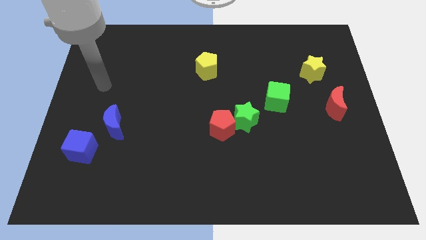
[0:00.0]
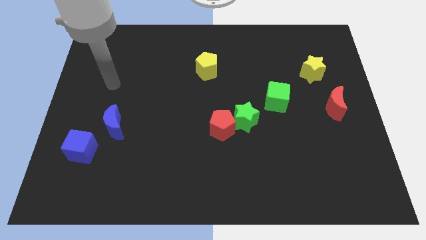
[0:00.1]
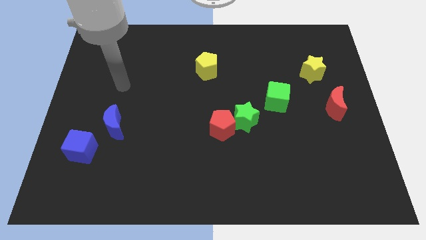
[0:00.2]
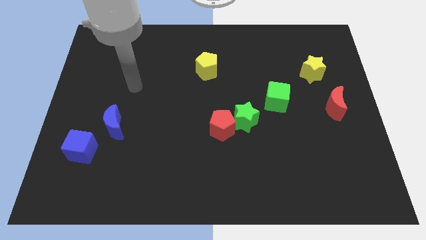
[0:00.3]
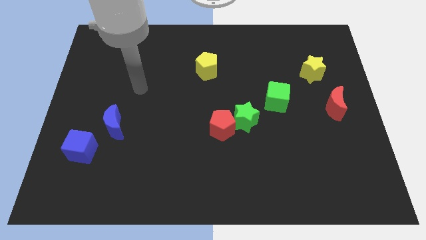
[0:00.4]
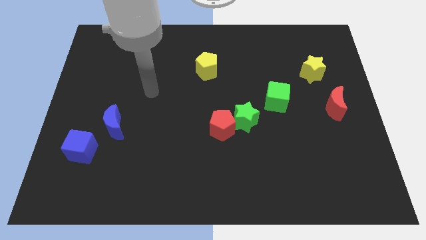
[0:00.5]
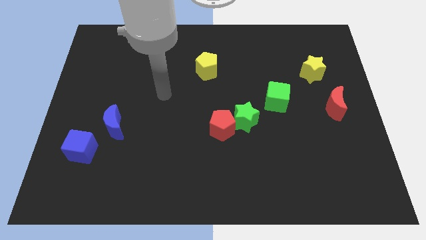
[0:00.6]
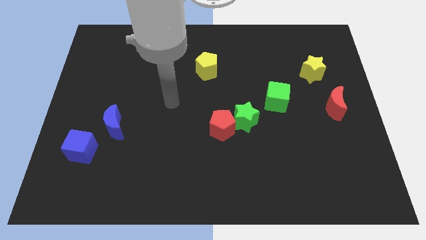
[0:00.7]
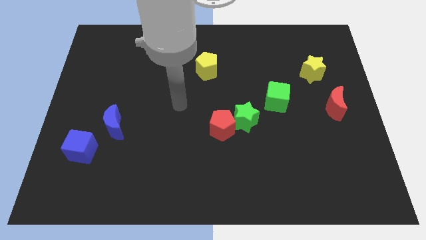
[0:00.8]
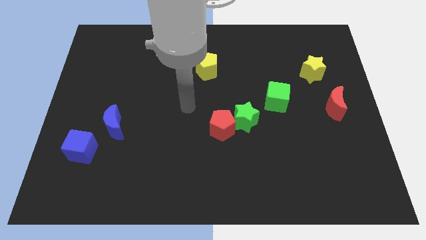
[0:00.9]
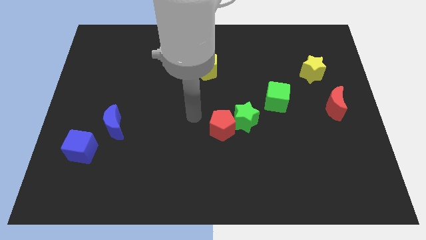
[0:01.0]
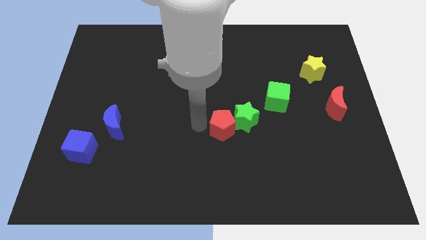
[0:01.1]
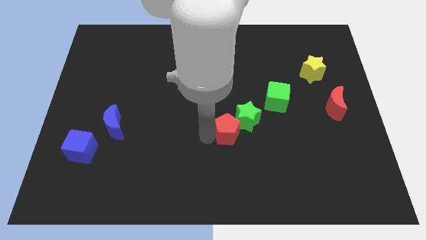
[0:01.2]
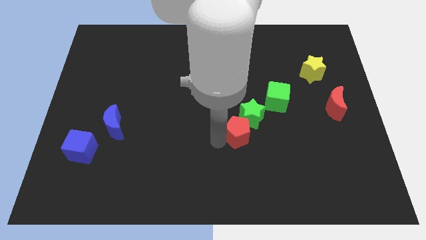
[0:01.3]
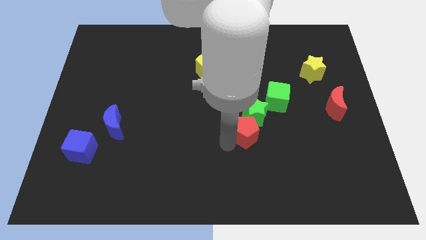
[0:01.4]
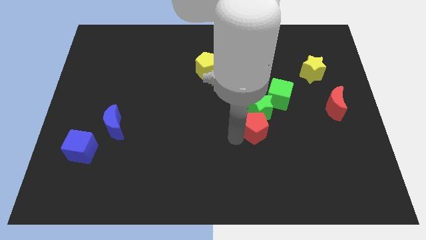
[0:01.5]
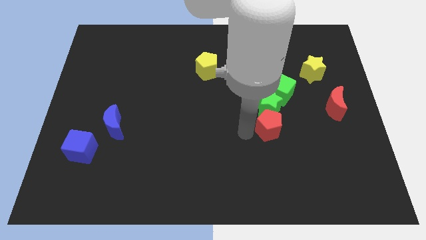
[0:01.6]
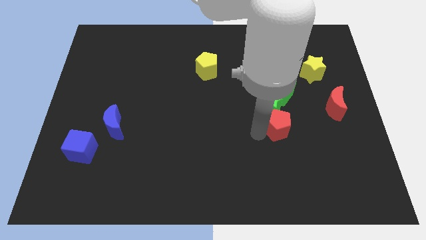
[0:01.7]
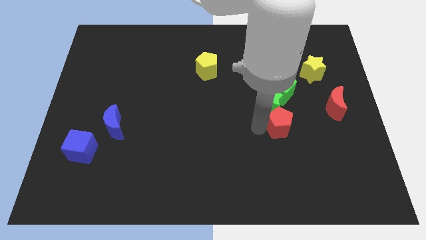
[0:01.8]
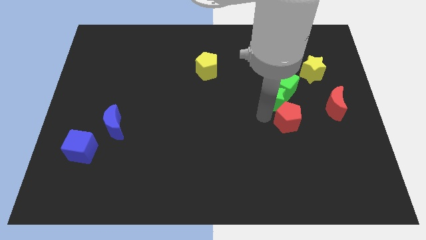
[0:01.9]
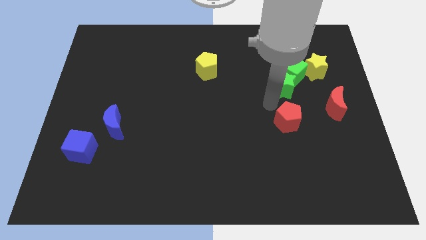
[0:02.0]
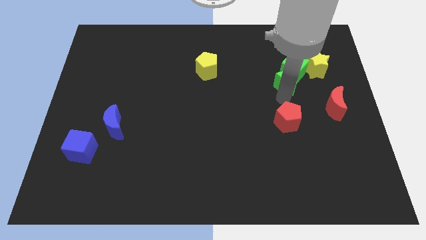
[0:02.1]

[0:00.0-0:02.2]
move the red pentagon away from the green star

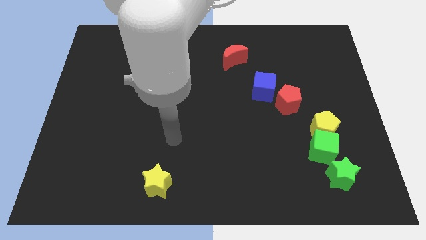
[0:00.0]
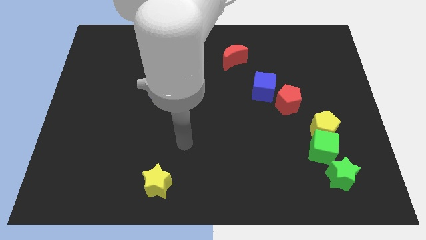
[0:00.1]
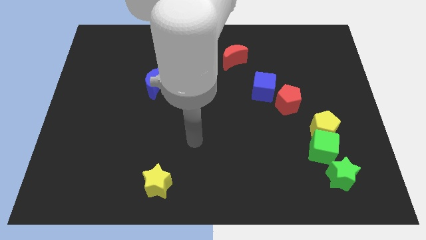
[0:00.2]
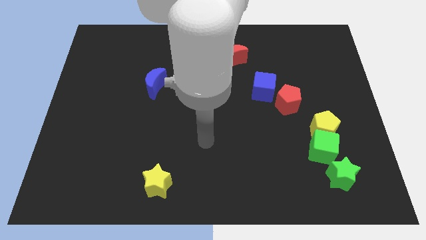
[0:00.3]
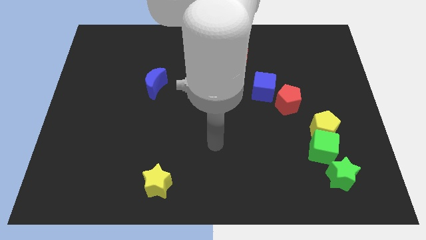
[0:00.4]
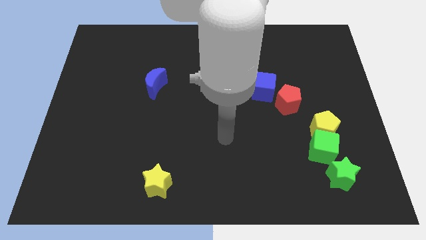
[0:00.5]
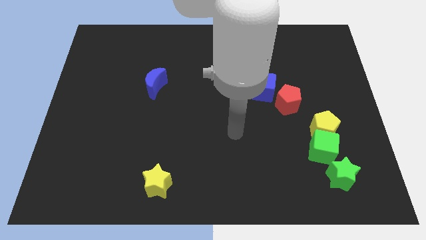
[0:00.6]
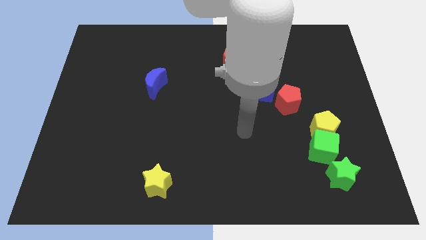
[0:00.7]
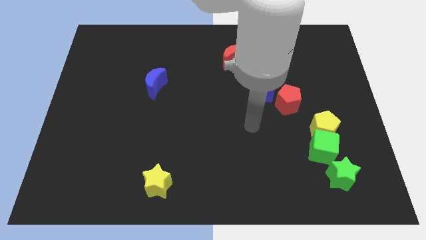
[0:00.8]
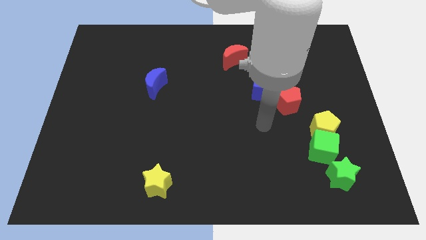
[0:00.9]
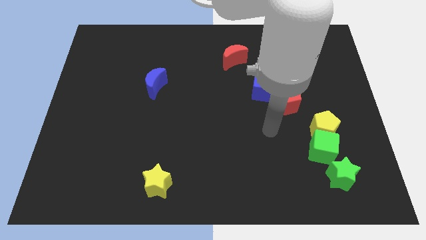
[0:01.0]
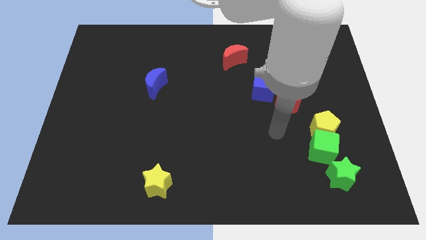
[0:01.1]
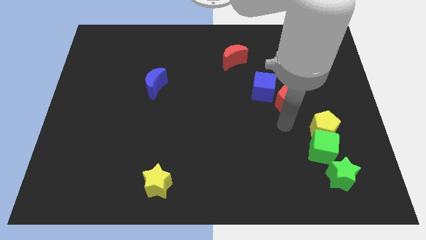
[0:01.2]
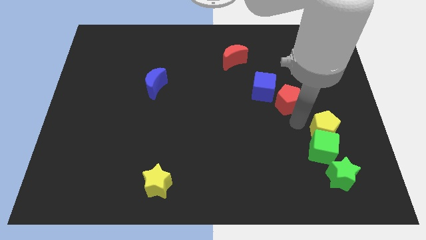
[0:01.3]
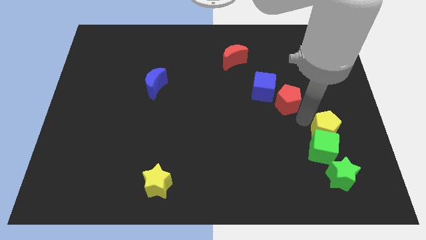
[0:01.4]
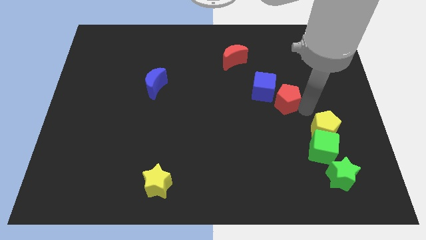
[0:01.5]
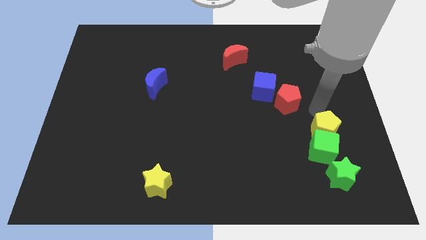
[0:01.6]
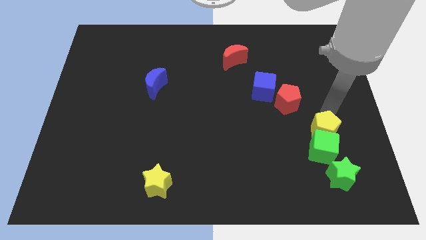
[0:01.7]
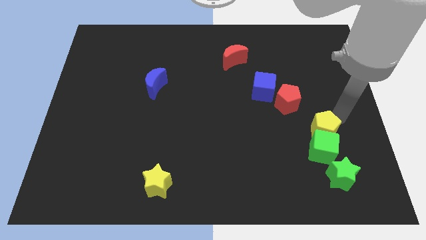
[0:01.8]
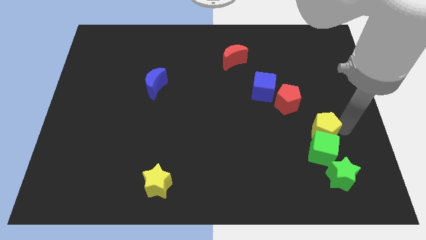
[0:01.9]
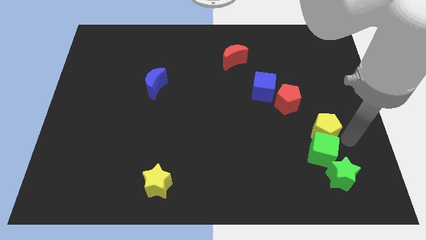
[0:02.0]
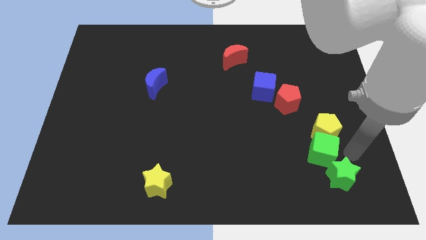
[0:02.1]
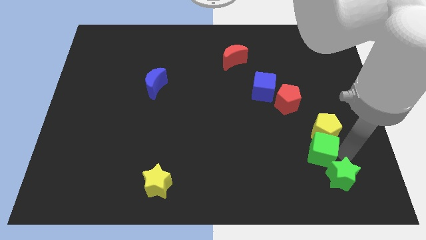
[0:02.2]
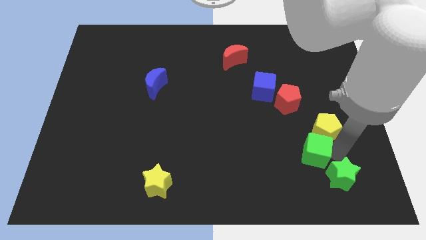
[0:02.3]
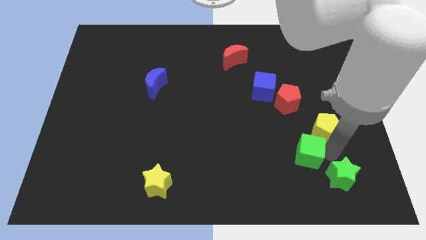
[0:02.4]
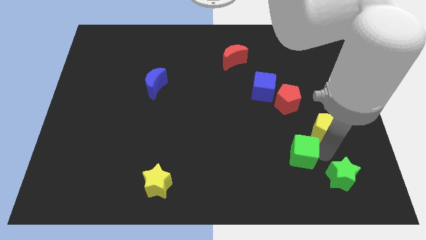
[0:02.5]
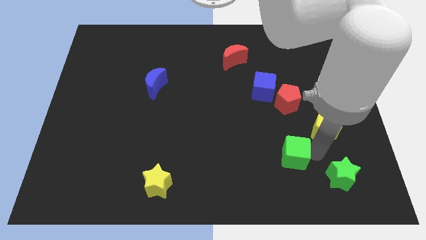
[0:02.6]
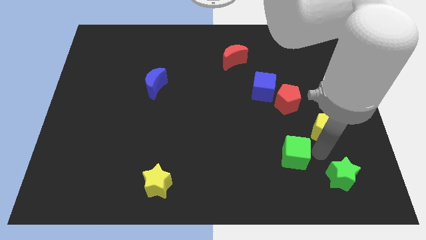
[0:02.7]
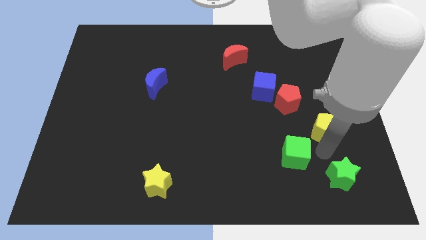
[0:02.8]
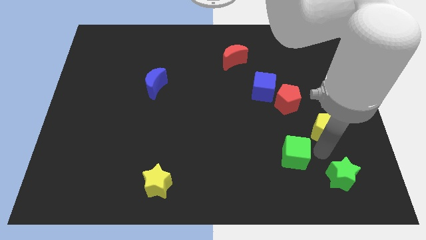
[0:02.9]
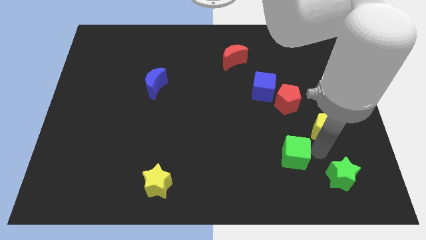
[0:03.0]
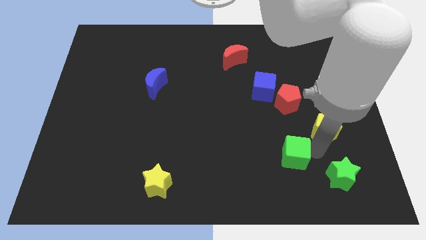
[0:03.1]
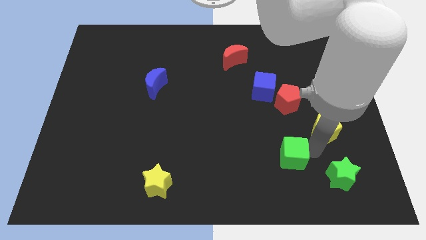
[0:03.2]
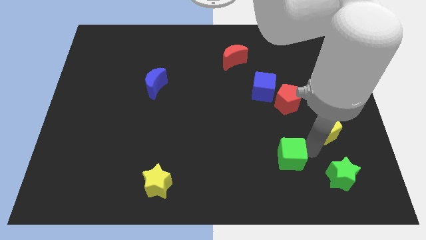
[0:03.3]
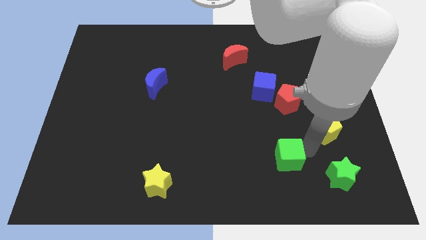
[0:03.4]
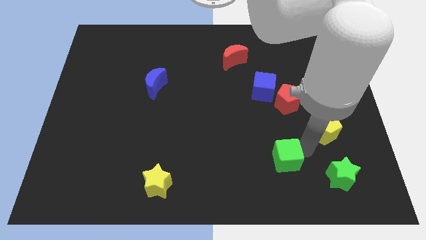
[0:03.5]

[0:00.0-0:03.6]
move the green cube away from the yellow pentagon and green star

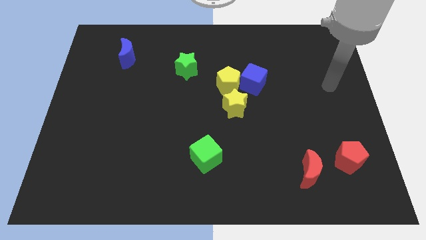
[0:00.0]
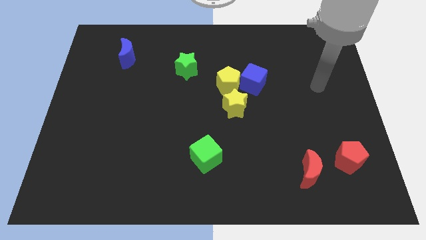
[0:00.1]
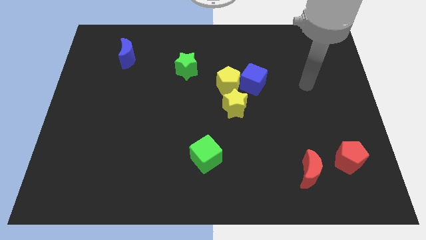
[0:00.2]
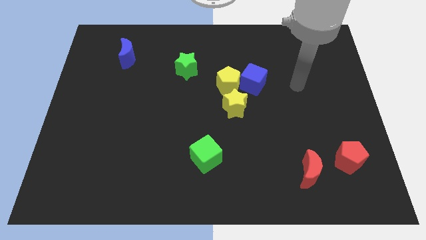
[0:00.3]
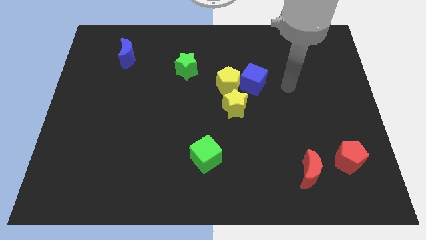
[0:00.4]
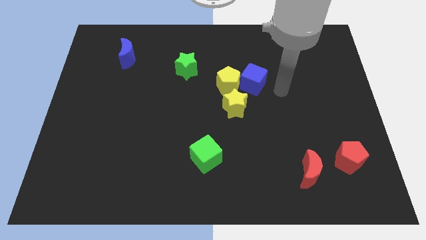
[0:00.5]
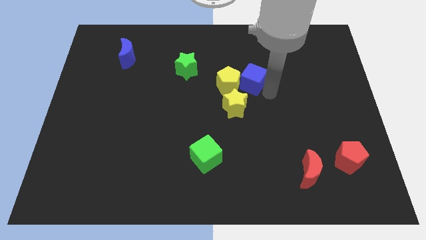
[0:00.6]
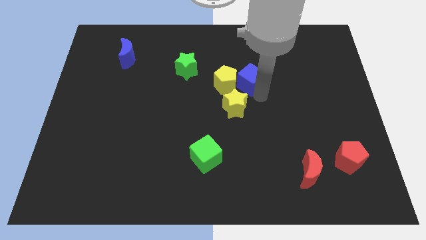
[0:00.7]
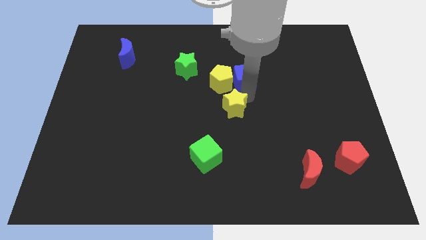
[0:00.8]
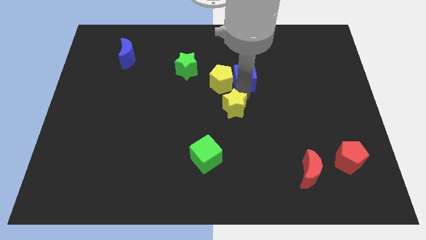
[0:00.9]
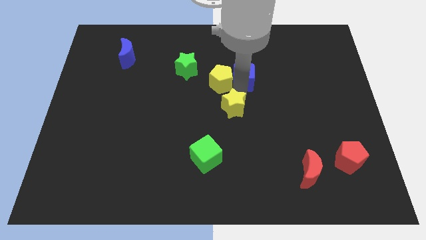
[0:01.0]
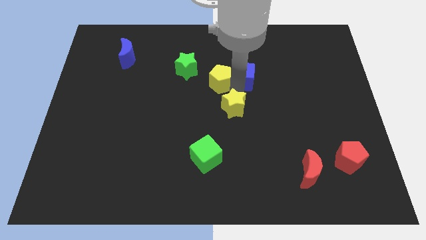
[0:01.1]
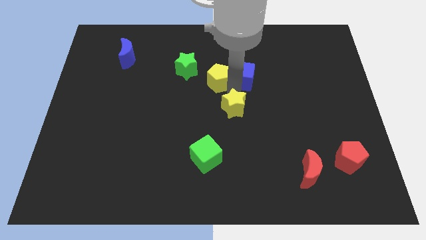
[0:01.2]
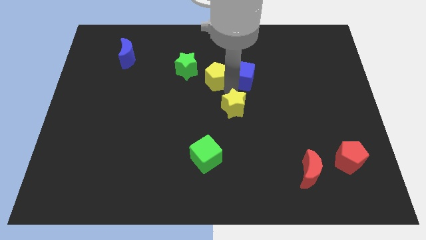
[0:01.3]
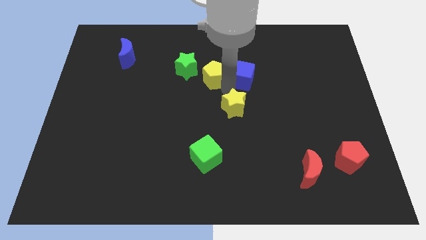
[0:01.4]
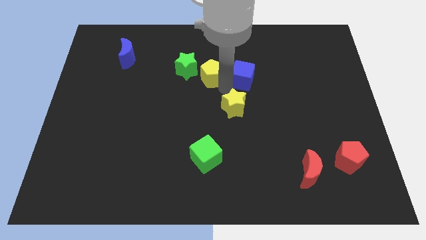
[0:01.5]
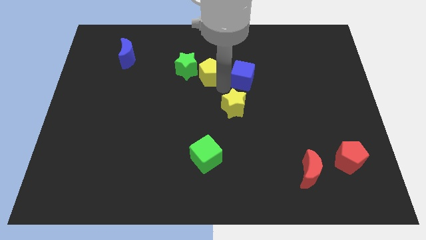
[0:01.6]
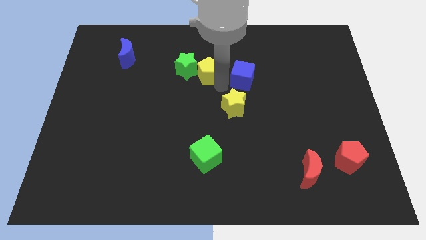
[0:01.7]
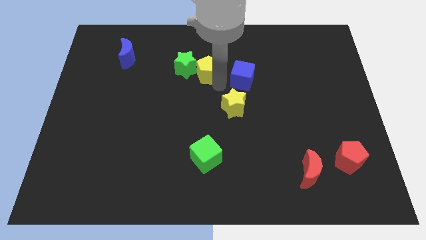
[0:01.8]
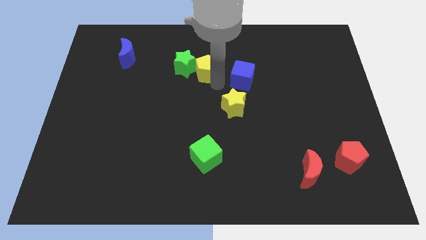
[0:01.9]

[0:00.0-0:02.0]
separate the yellow pentagon from the blue cube and yellow star

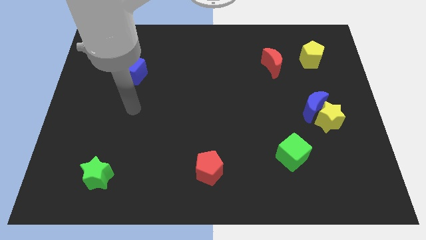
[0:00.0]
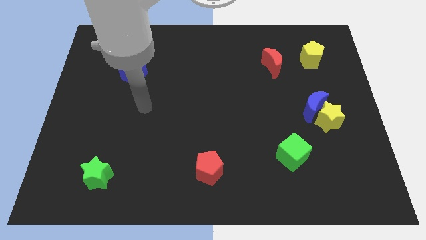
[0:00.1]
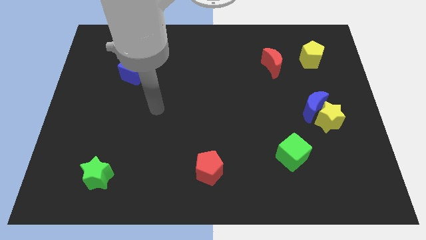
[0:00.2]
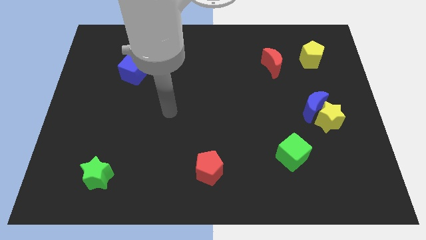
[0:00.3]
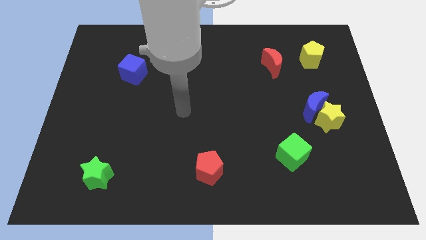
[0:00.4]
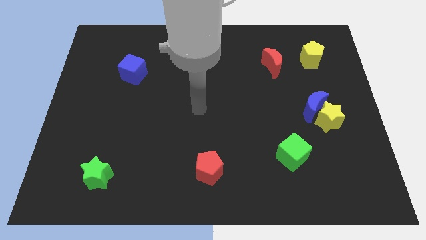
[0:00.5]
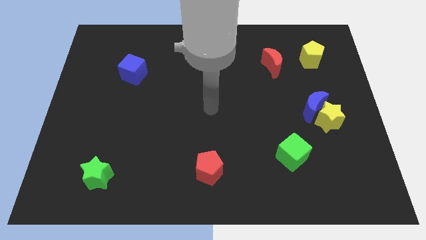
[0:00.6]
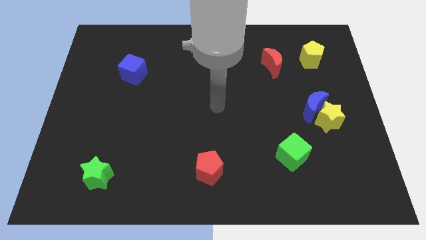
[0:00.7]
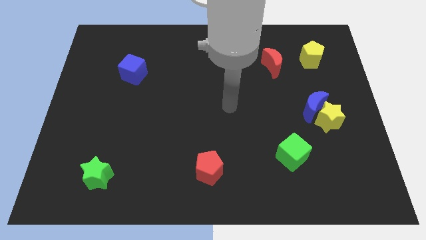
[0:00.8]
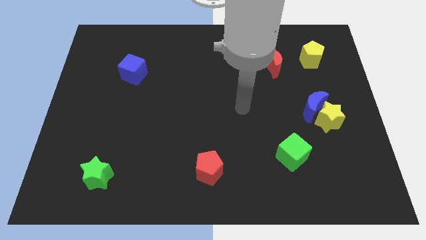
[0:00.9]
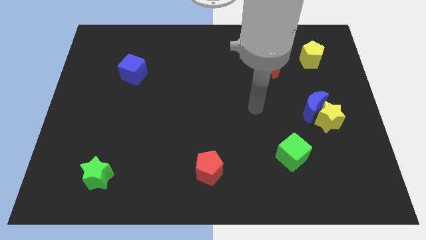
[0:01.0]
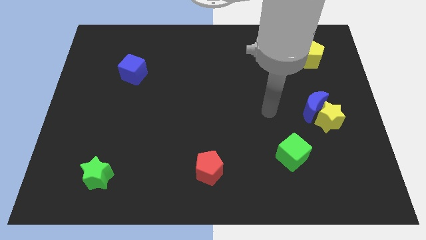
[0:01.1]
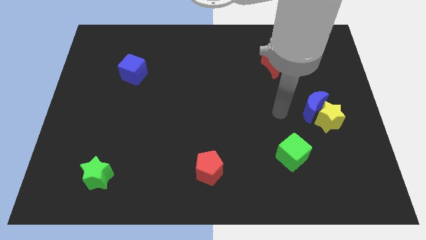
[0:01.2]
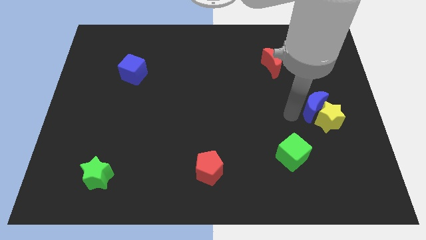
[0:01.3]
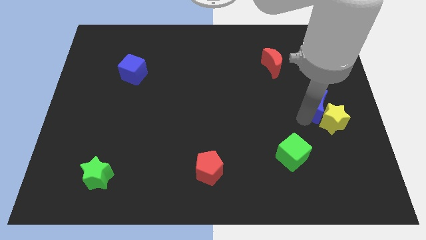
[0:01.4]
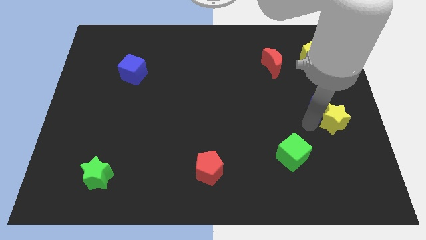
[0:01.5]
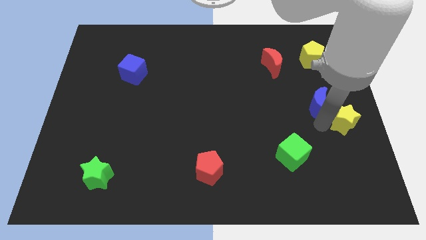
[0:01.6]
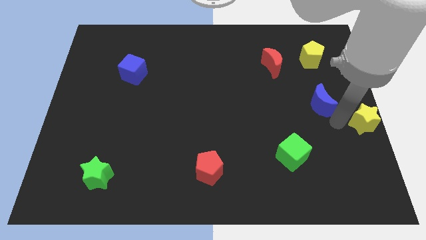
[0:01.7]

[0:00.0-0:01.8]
move the blue moon away from the yellow star
